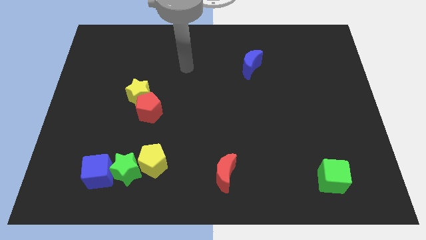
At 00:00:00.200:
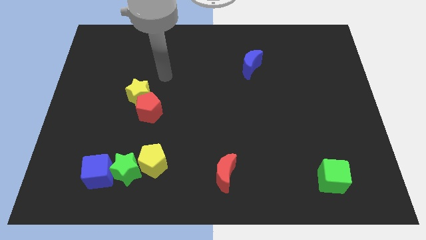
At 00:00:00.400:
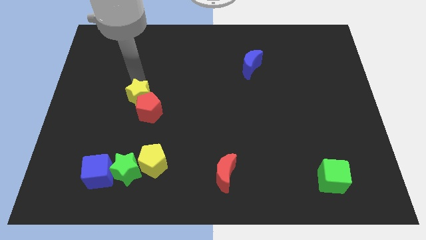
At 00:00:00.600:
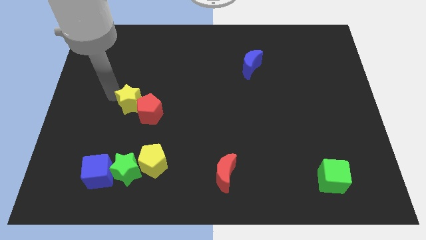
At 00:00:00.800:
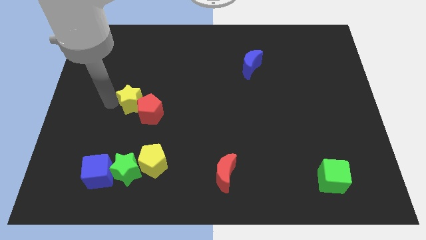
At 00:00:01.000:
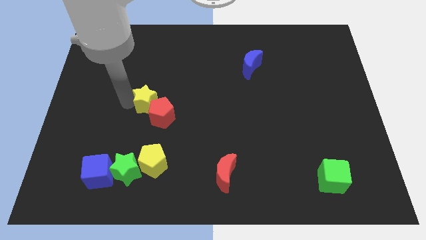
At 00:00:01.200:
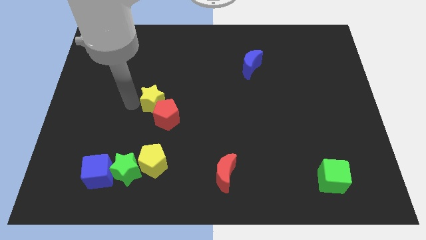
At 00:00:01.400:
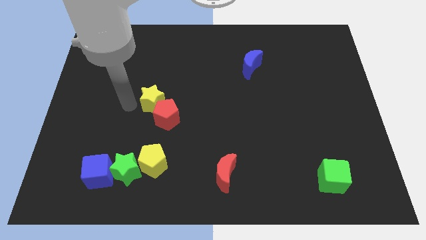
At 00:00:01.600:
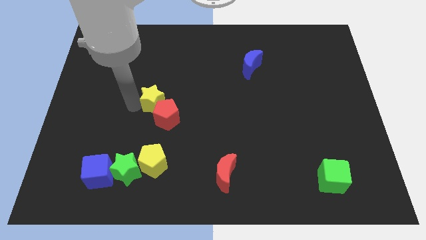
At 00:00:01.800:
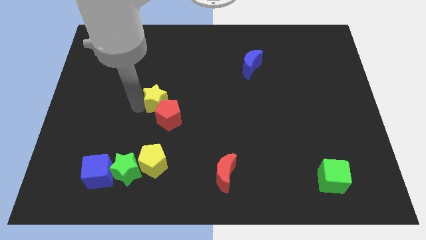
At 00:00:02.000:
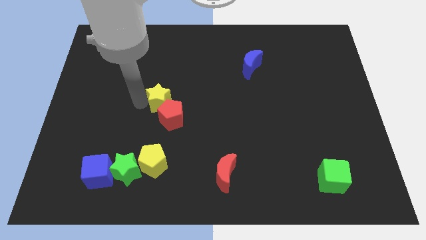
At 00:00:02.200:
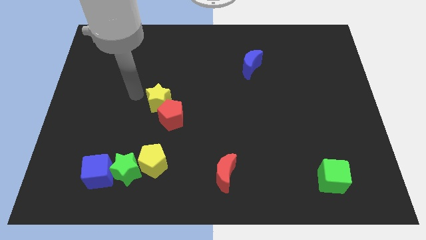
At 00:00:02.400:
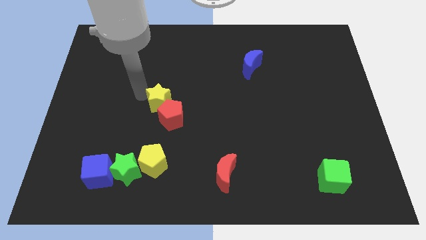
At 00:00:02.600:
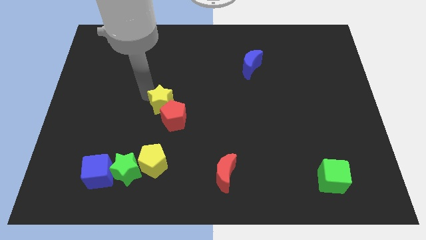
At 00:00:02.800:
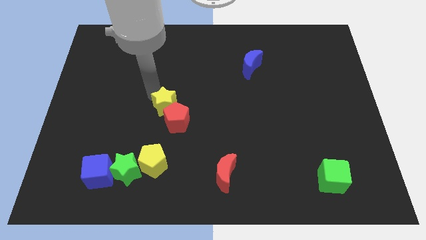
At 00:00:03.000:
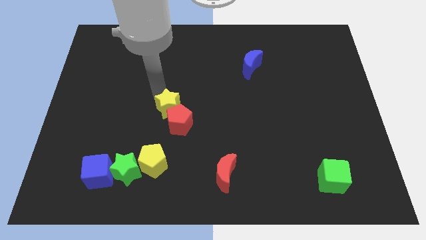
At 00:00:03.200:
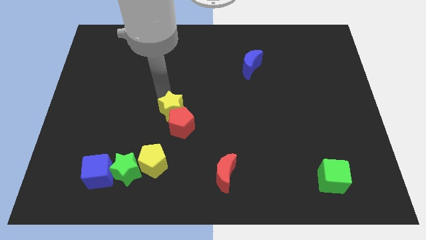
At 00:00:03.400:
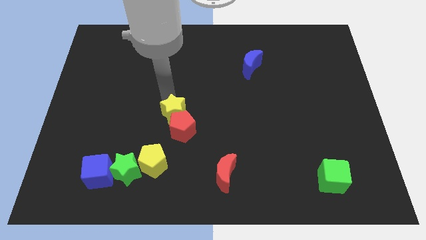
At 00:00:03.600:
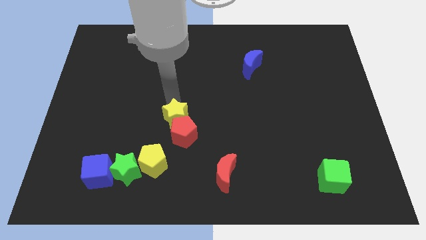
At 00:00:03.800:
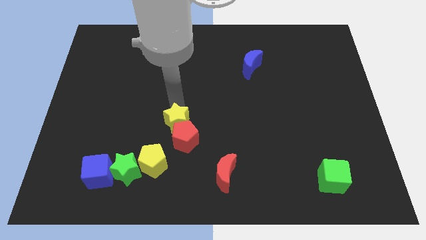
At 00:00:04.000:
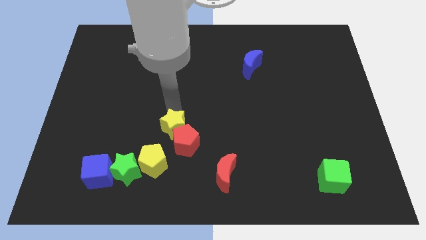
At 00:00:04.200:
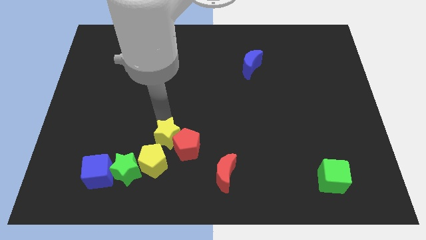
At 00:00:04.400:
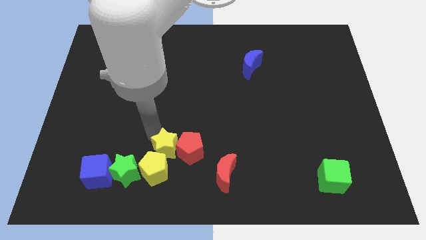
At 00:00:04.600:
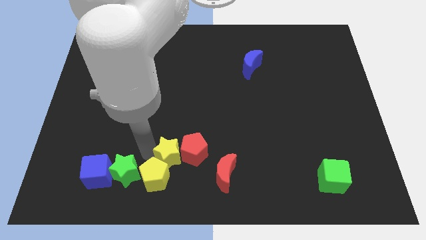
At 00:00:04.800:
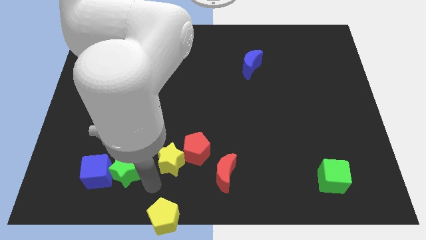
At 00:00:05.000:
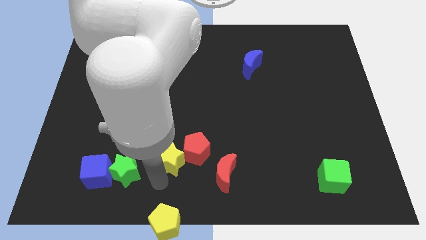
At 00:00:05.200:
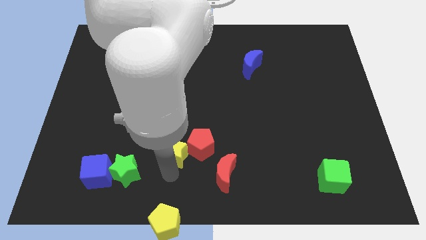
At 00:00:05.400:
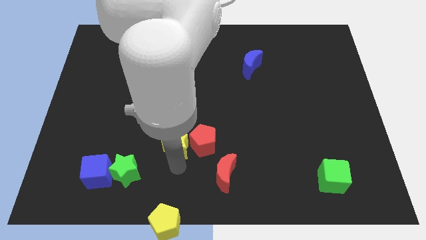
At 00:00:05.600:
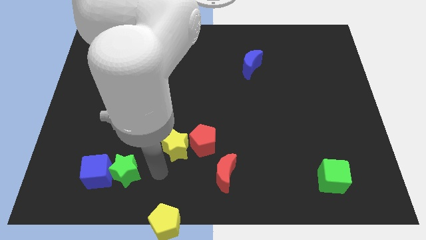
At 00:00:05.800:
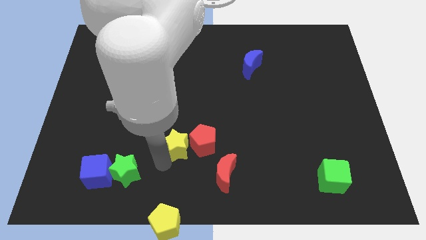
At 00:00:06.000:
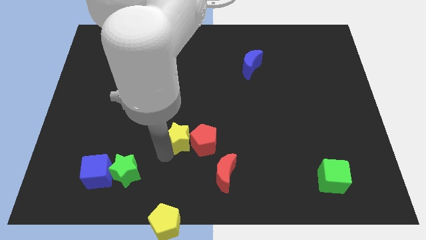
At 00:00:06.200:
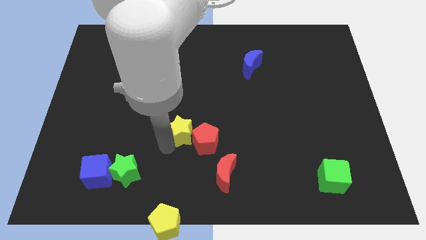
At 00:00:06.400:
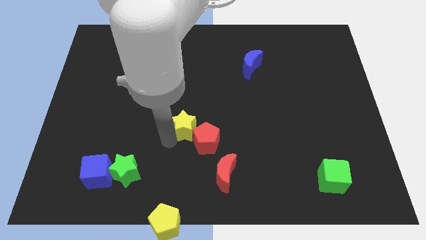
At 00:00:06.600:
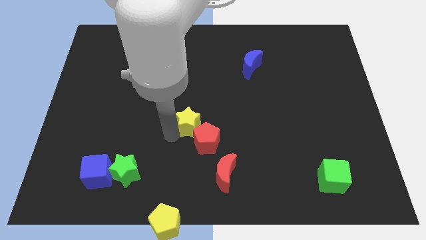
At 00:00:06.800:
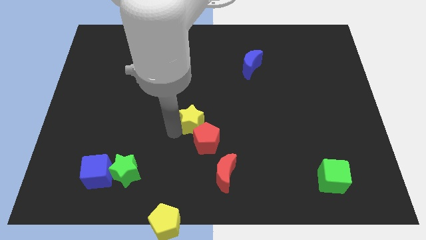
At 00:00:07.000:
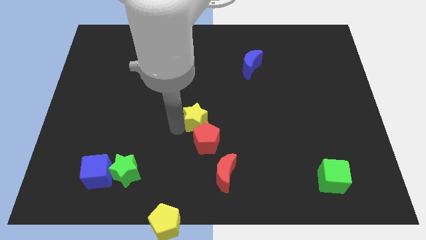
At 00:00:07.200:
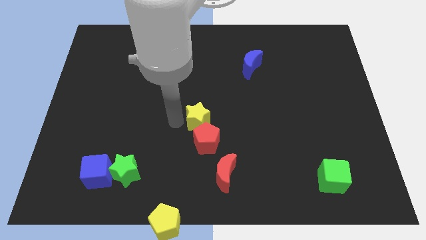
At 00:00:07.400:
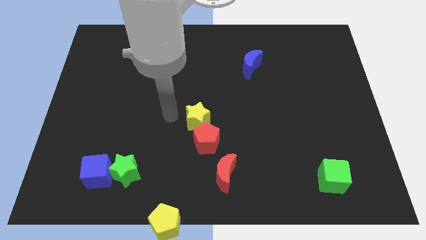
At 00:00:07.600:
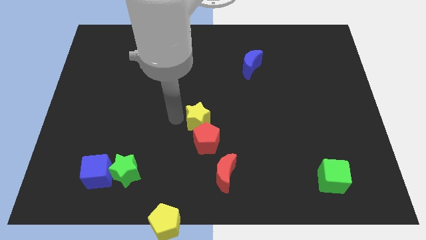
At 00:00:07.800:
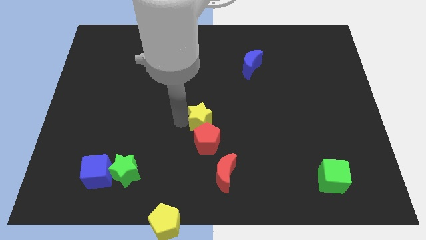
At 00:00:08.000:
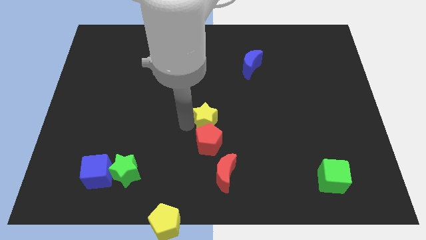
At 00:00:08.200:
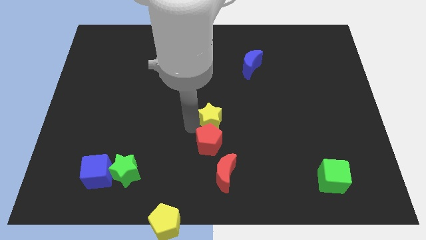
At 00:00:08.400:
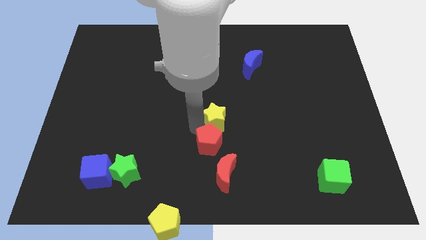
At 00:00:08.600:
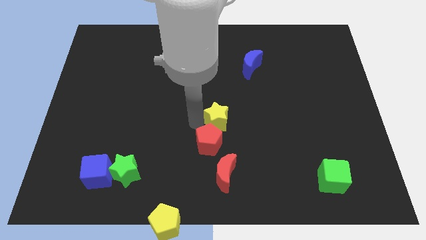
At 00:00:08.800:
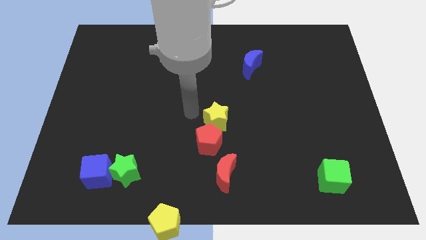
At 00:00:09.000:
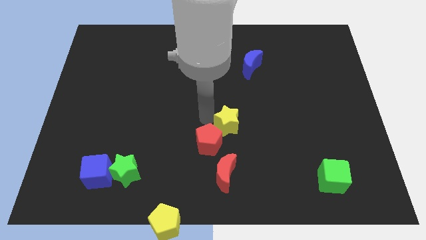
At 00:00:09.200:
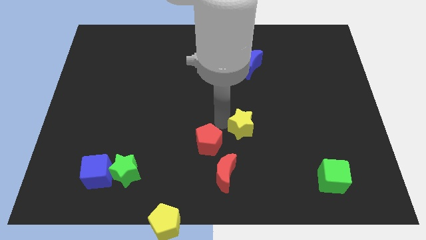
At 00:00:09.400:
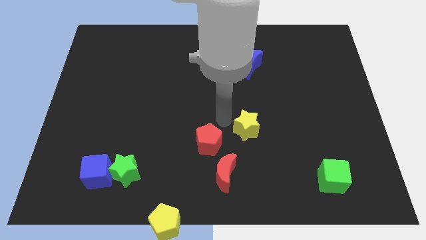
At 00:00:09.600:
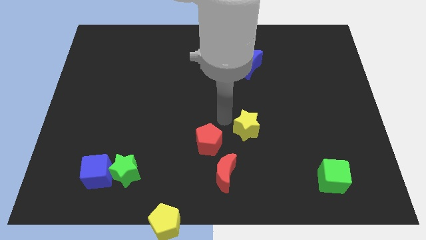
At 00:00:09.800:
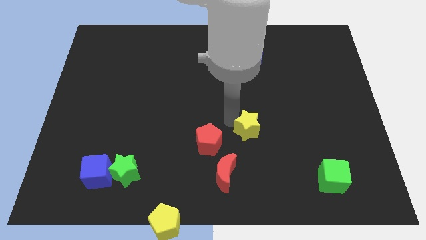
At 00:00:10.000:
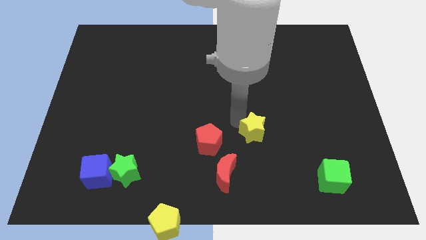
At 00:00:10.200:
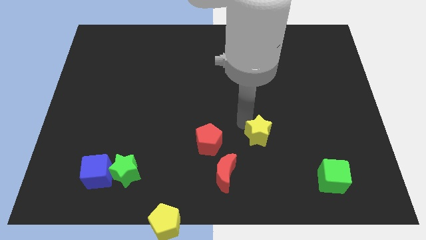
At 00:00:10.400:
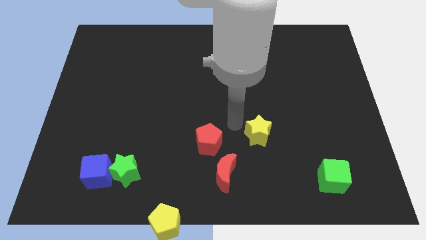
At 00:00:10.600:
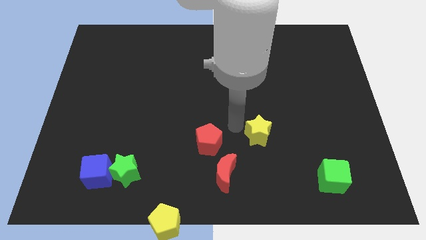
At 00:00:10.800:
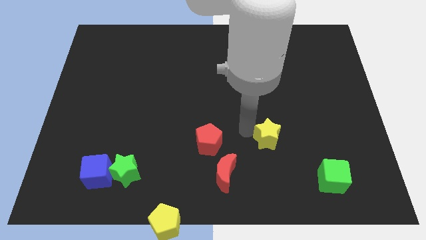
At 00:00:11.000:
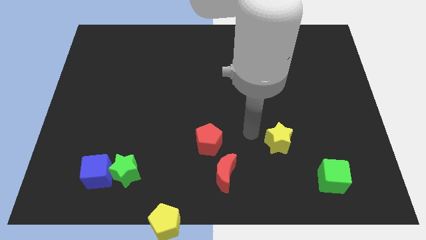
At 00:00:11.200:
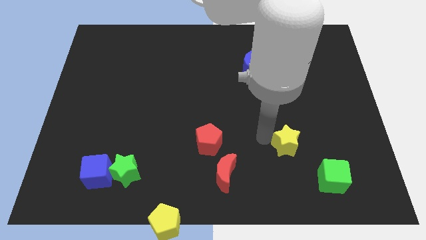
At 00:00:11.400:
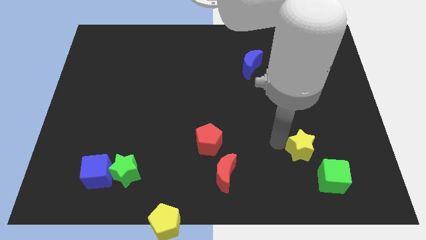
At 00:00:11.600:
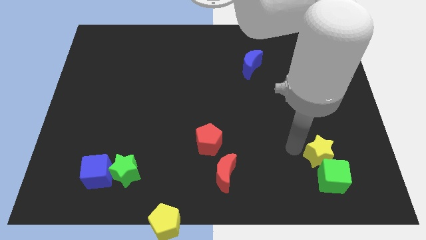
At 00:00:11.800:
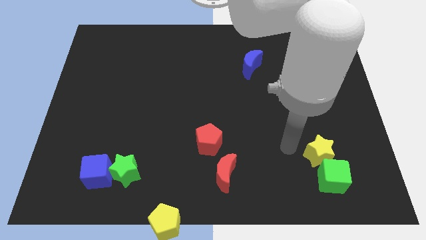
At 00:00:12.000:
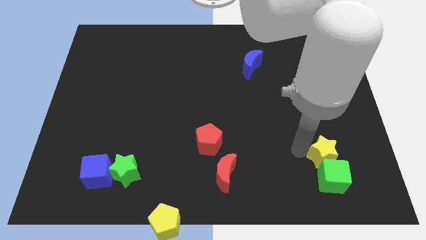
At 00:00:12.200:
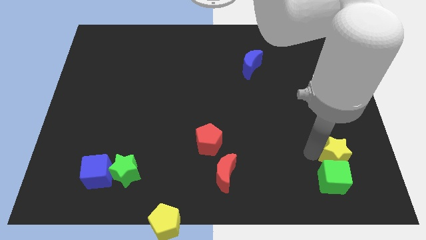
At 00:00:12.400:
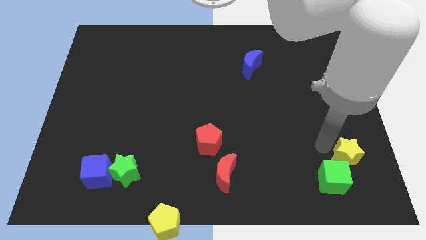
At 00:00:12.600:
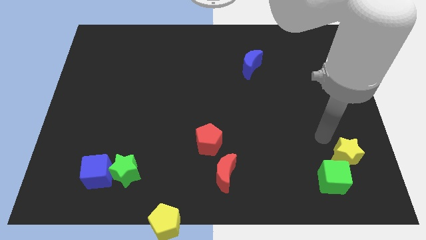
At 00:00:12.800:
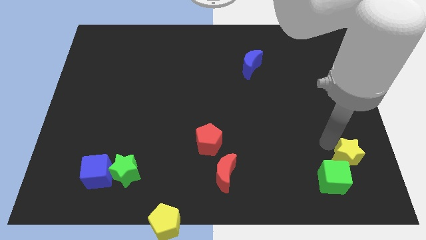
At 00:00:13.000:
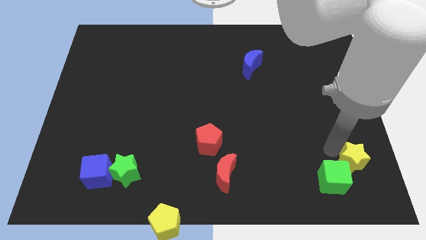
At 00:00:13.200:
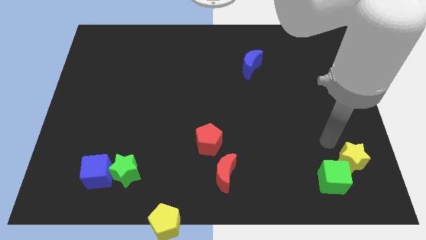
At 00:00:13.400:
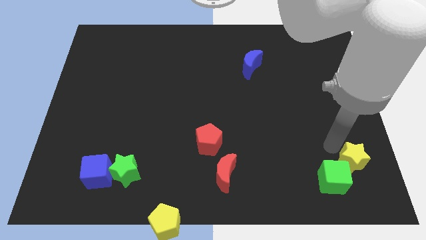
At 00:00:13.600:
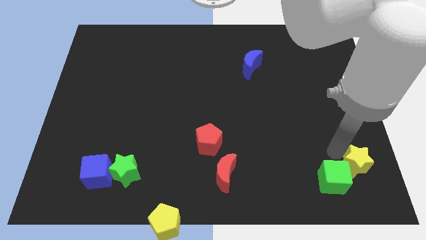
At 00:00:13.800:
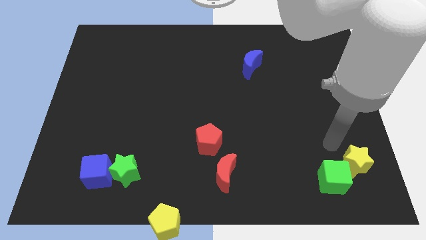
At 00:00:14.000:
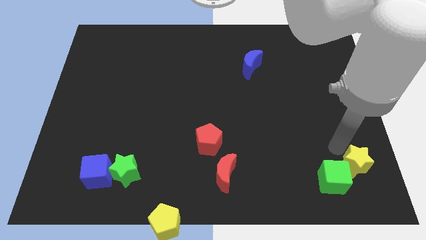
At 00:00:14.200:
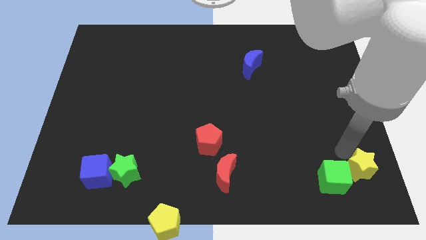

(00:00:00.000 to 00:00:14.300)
push the yellow star to the lower right corner
